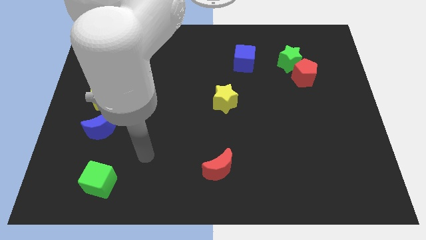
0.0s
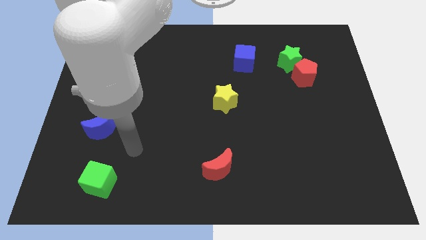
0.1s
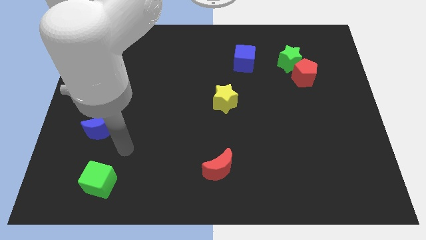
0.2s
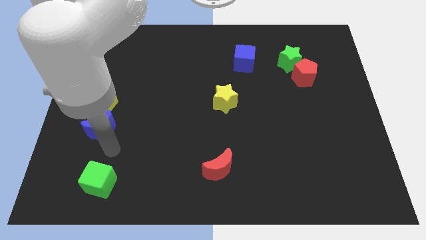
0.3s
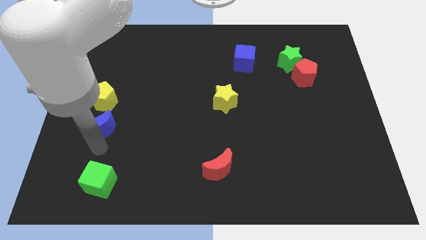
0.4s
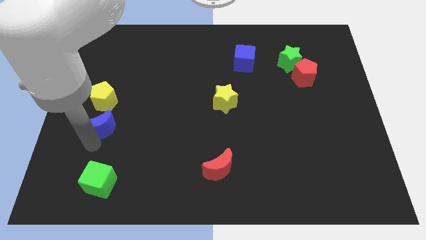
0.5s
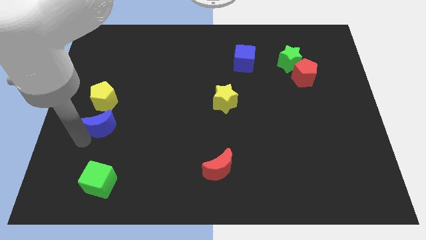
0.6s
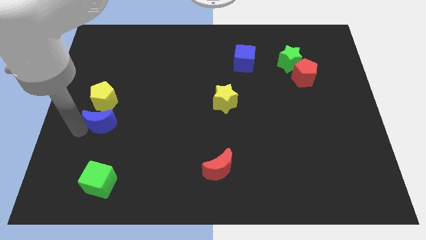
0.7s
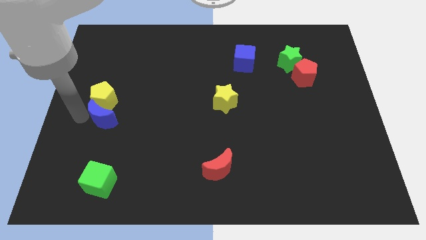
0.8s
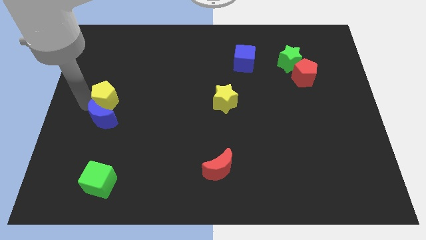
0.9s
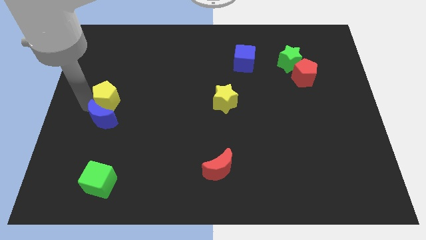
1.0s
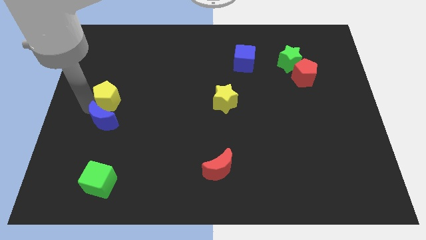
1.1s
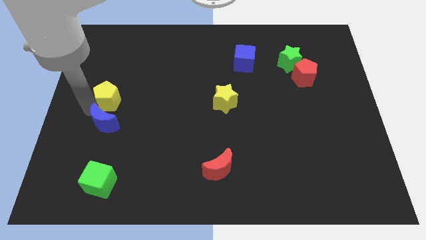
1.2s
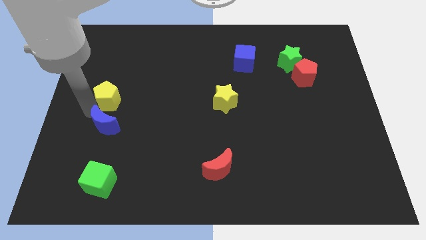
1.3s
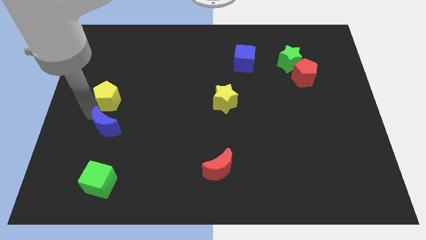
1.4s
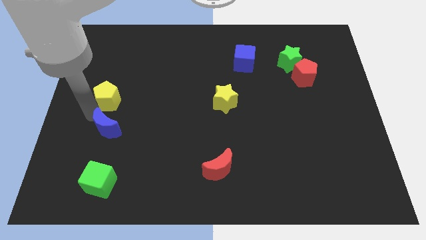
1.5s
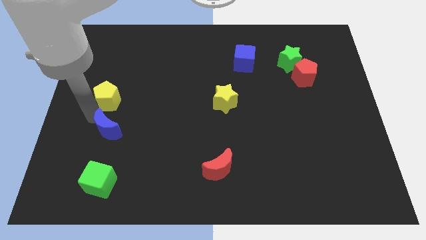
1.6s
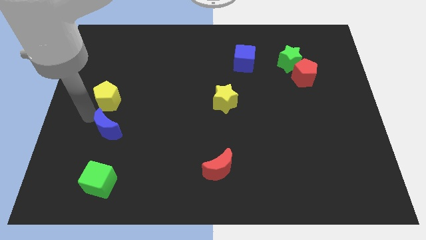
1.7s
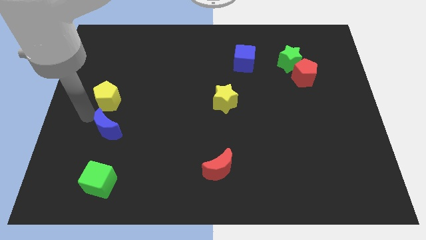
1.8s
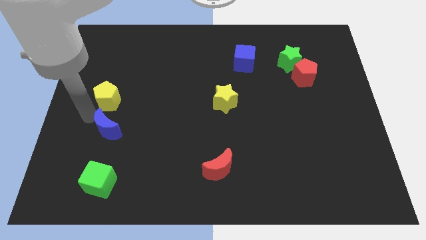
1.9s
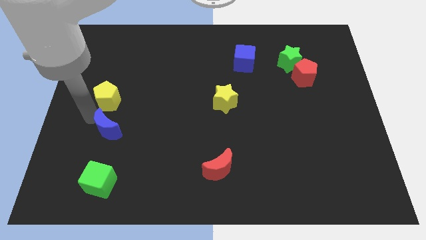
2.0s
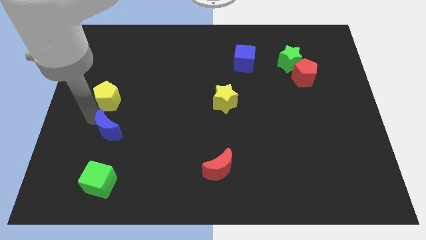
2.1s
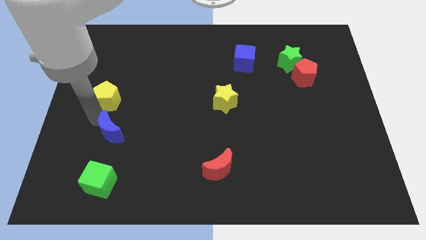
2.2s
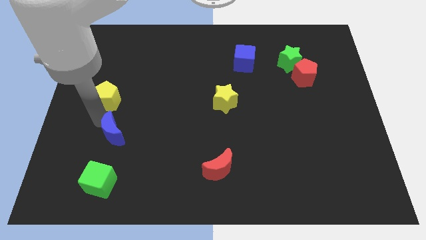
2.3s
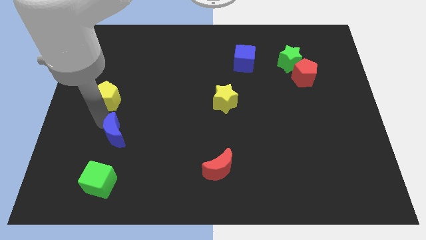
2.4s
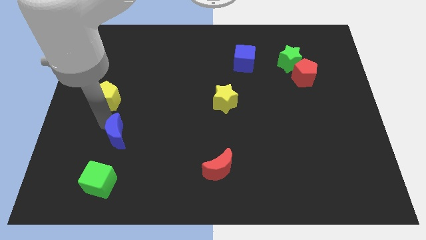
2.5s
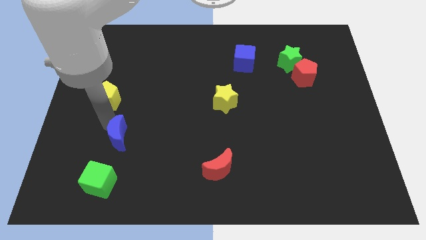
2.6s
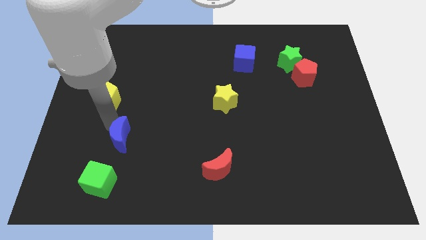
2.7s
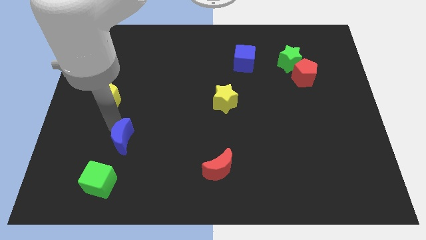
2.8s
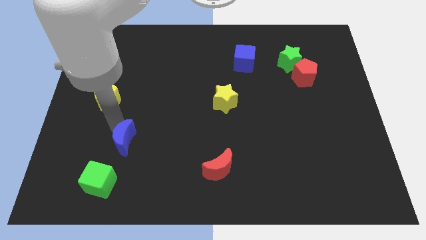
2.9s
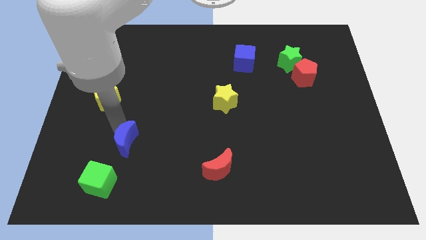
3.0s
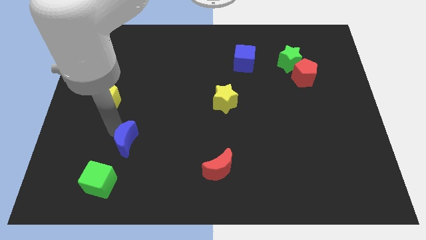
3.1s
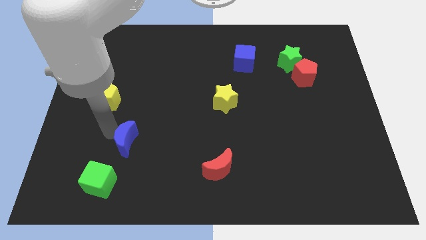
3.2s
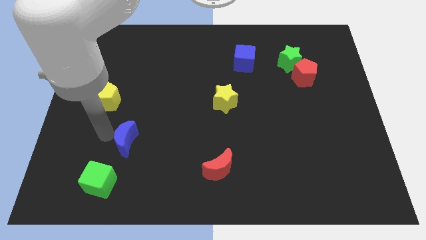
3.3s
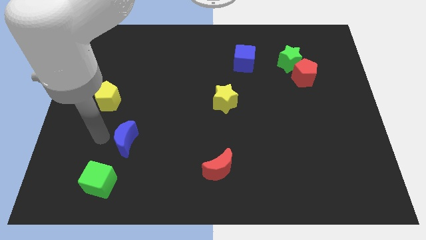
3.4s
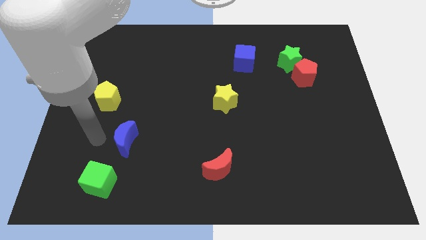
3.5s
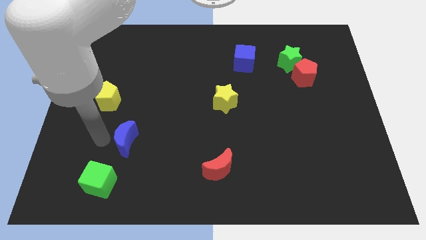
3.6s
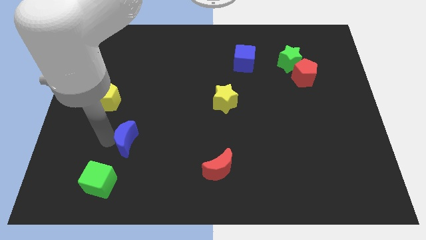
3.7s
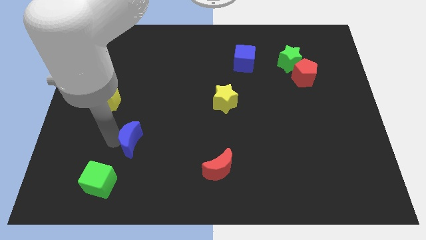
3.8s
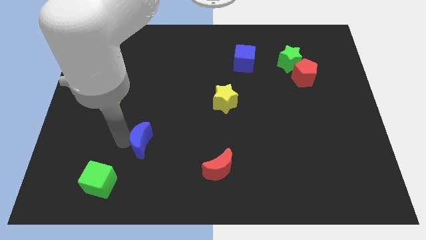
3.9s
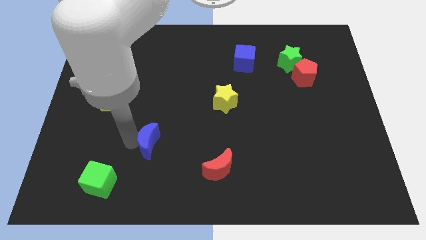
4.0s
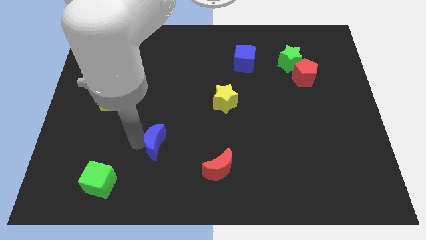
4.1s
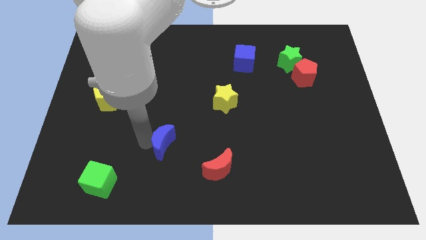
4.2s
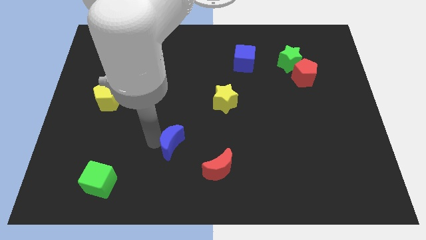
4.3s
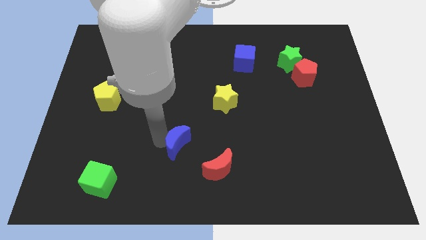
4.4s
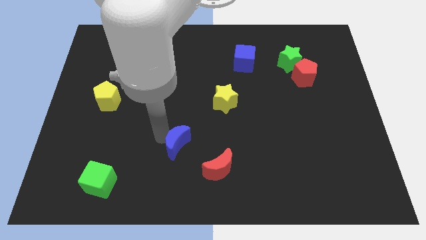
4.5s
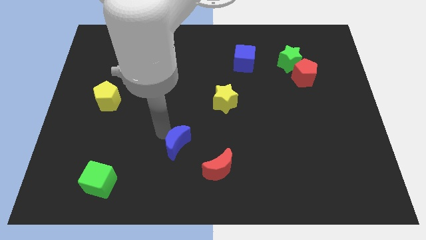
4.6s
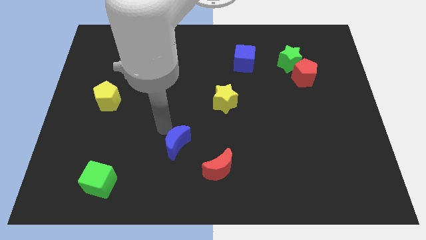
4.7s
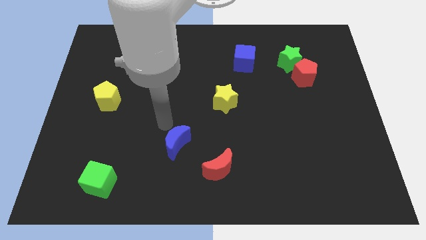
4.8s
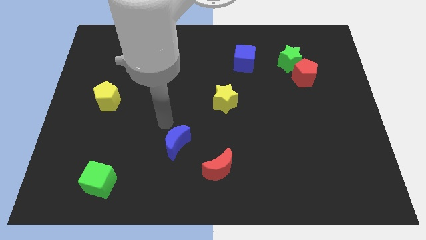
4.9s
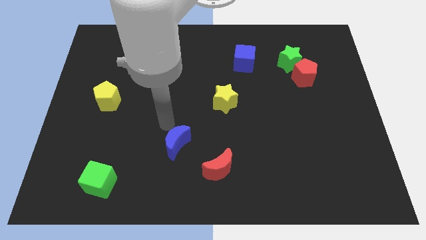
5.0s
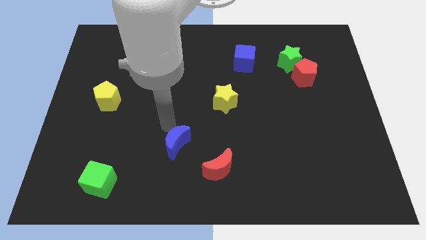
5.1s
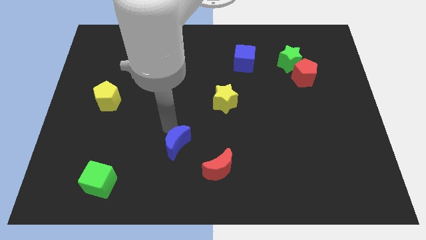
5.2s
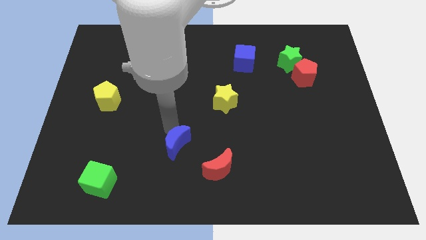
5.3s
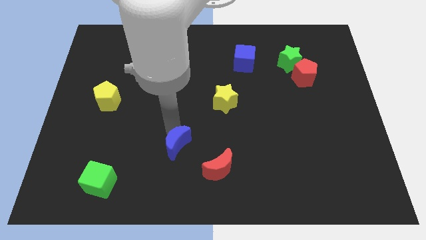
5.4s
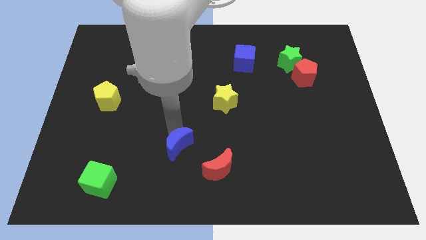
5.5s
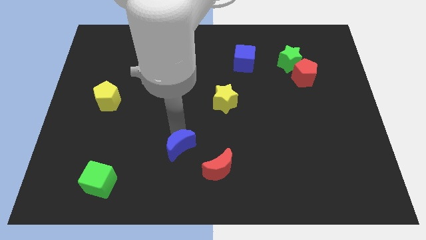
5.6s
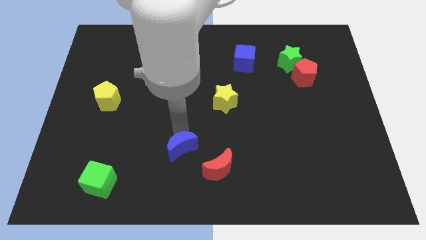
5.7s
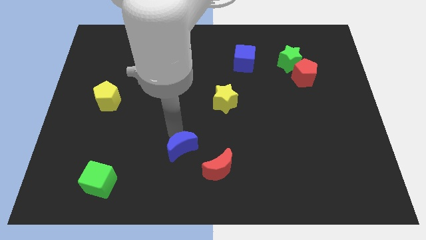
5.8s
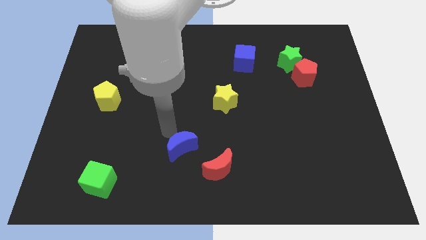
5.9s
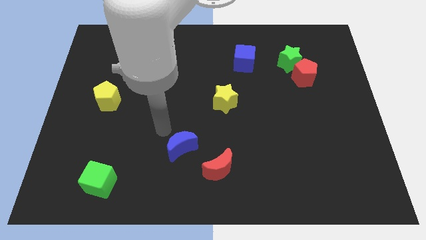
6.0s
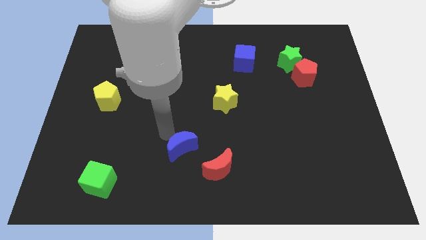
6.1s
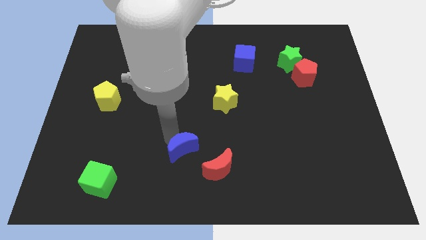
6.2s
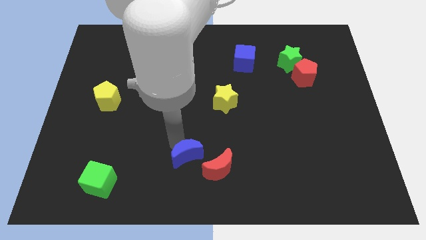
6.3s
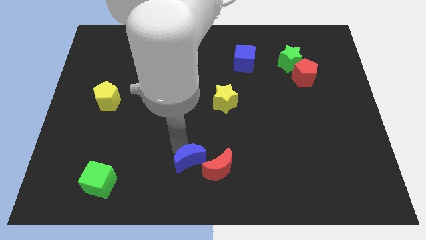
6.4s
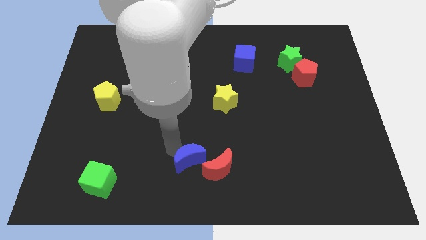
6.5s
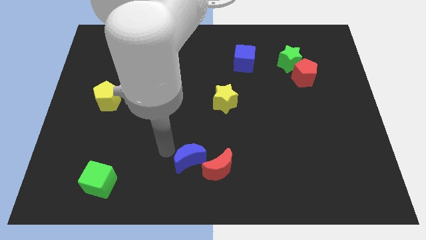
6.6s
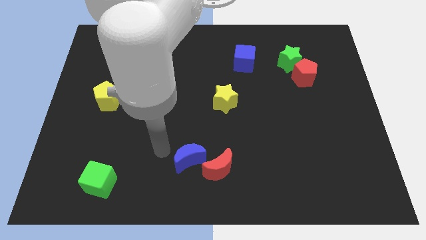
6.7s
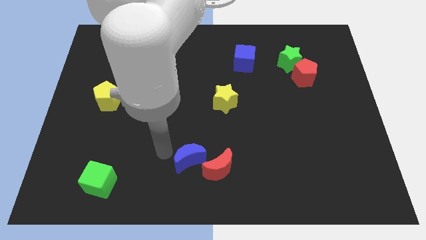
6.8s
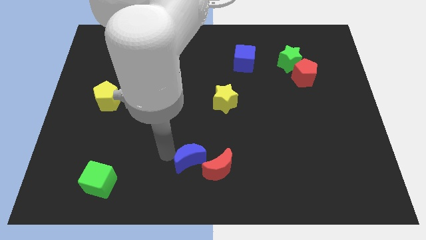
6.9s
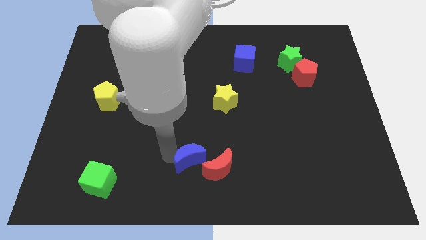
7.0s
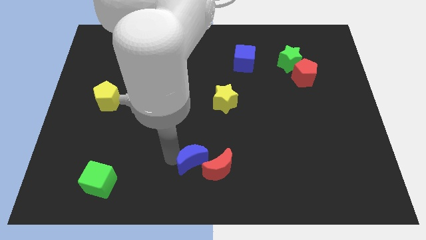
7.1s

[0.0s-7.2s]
push the blue moon towards the red moon
